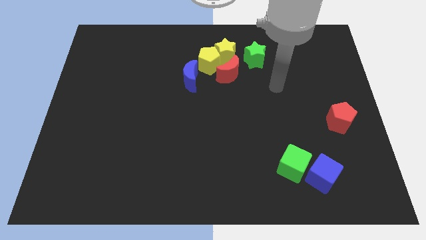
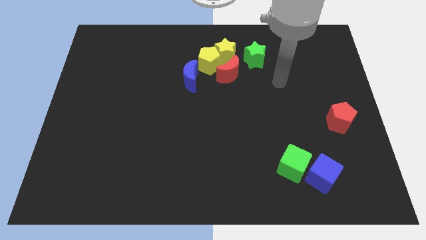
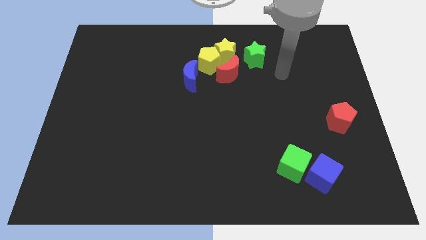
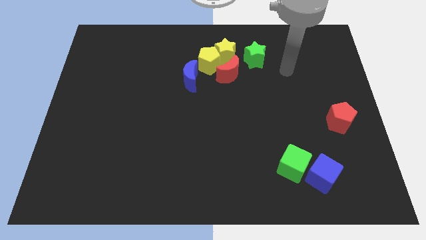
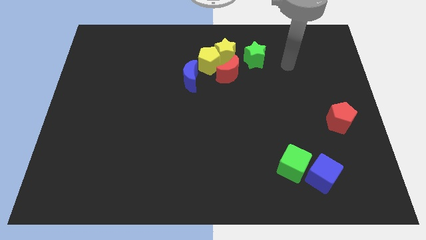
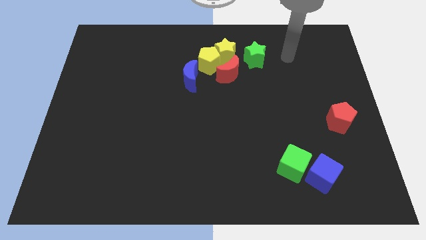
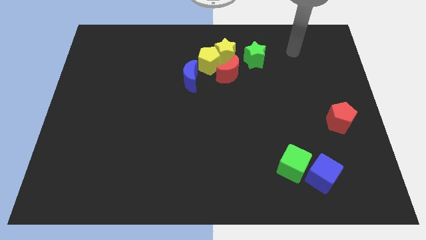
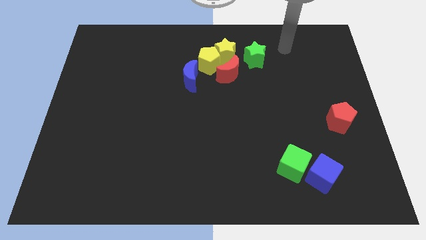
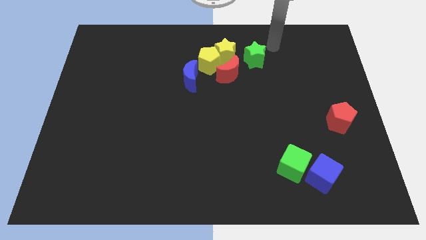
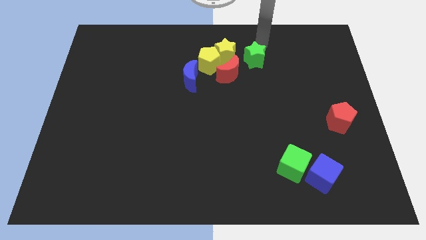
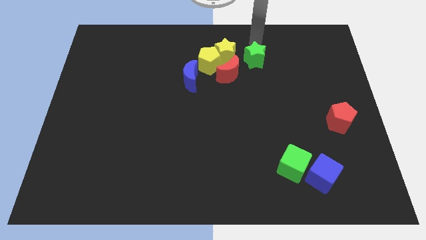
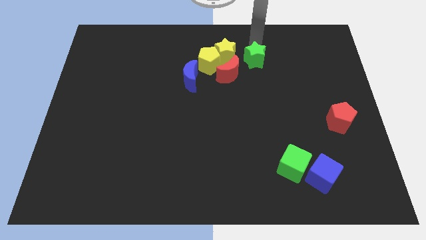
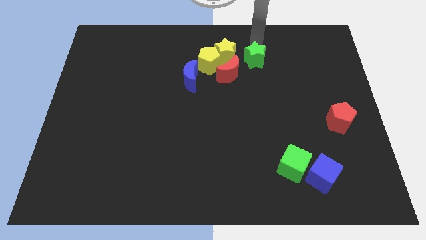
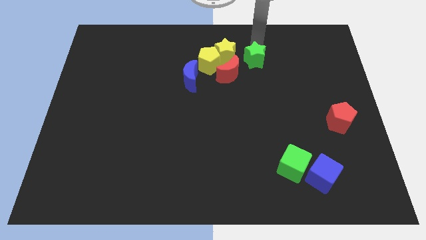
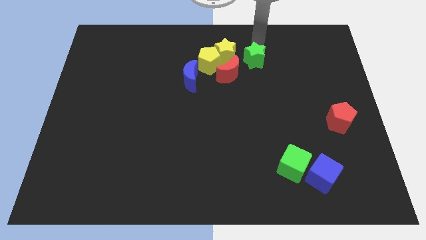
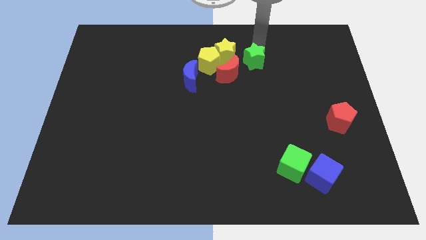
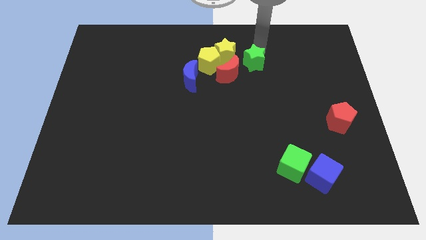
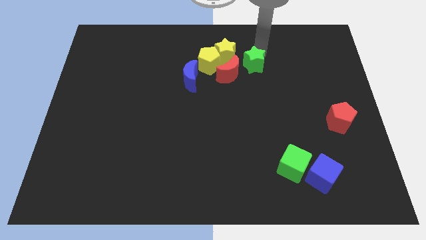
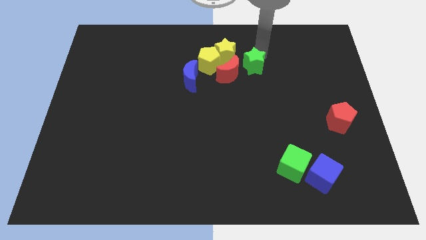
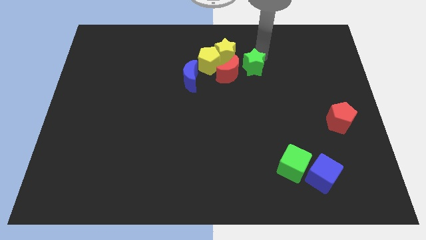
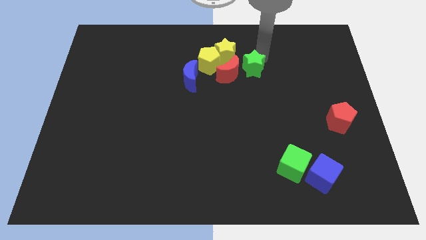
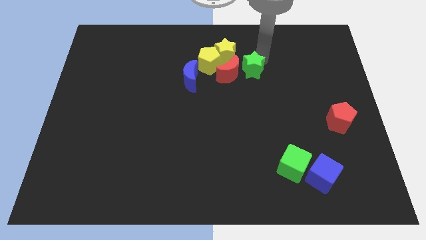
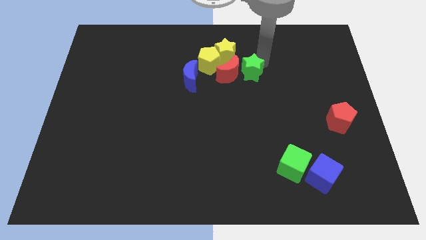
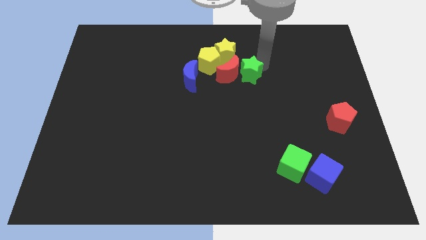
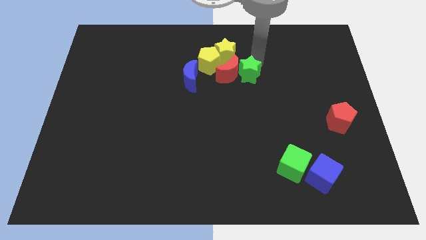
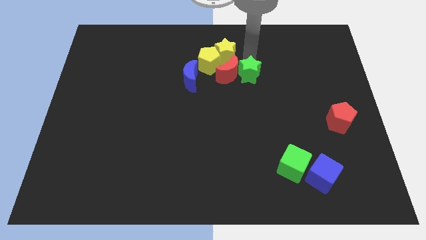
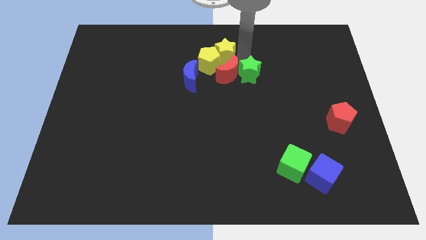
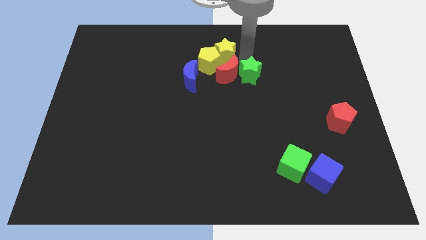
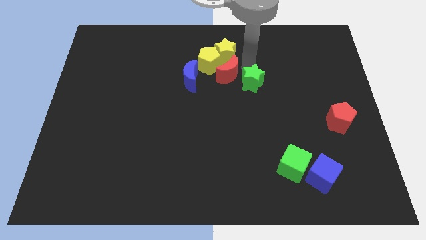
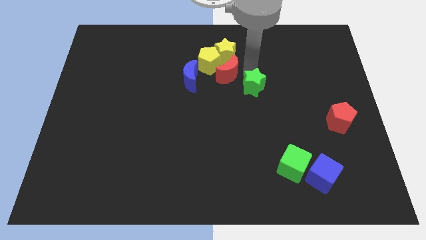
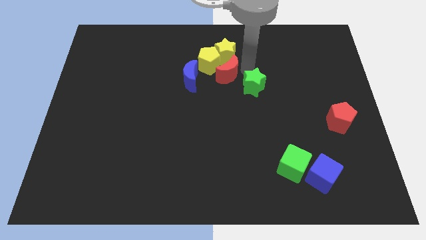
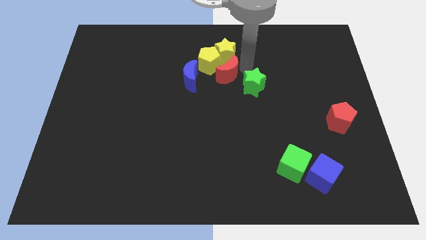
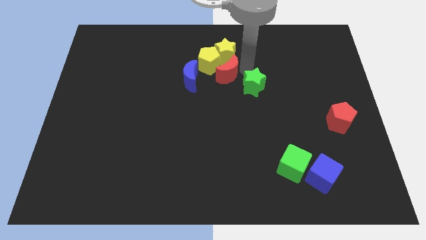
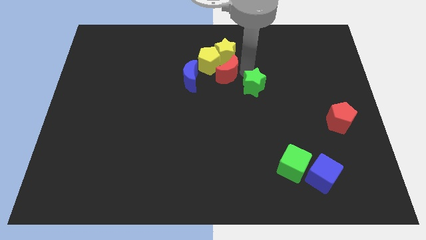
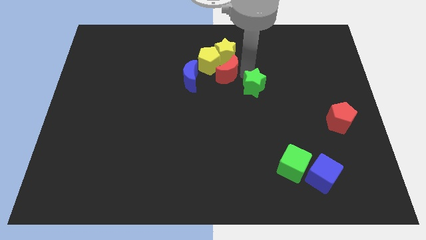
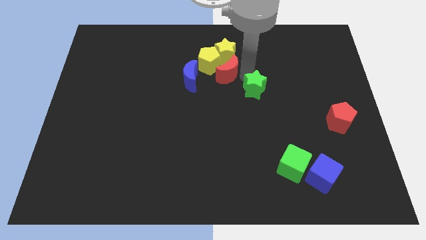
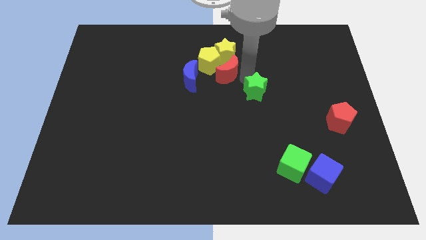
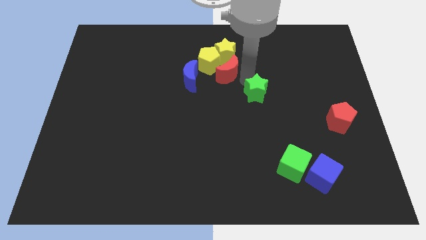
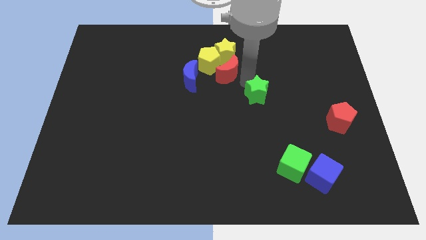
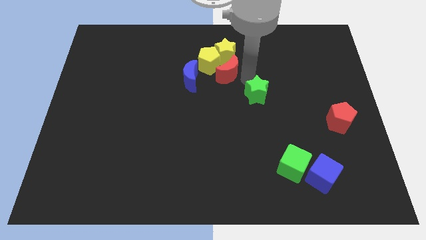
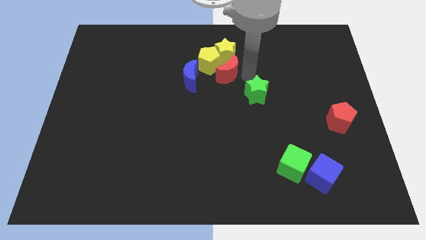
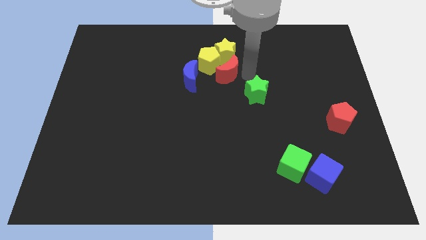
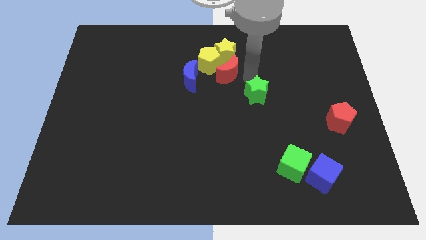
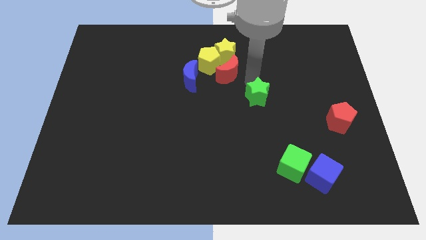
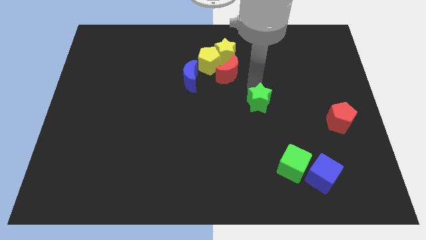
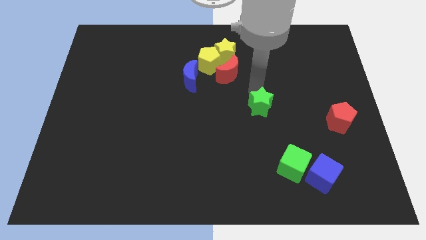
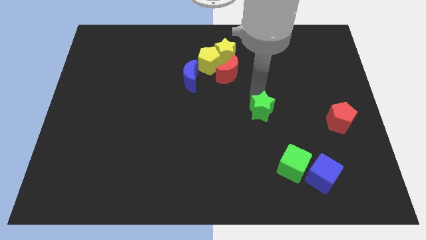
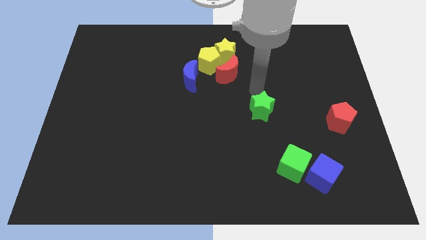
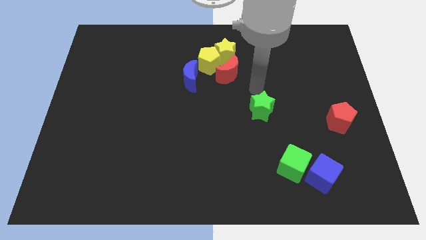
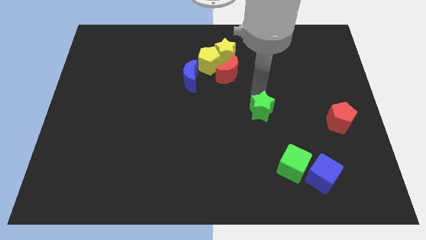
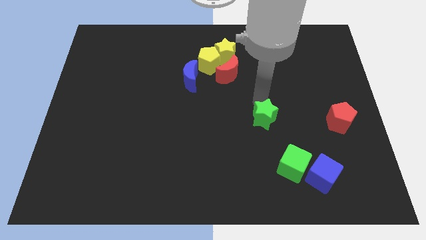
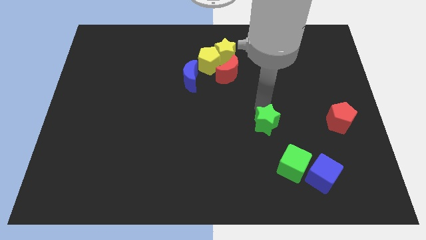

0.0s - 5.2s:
slide the green star downwards

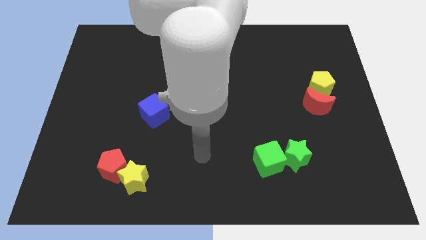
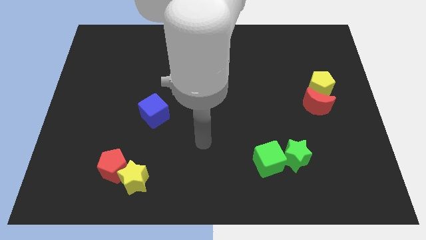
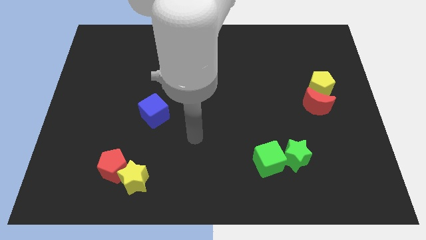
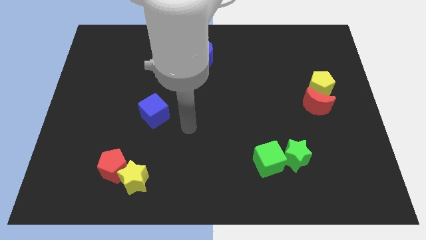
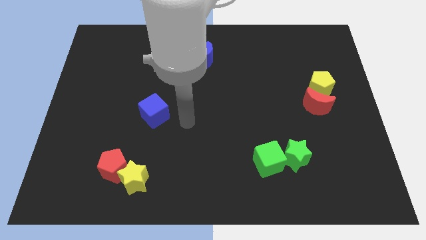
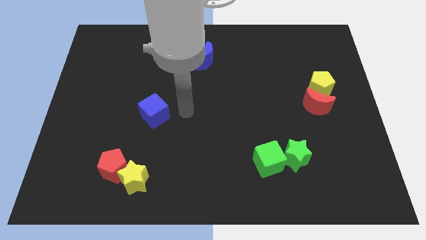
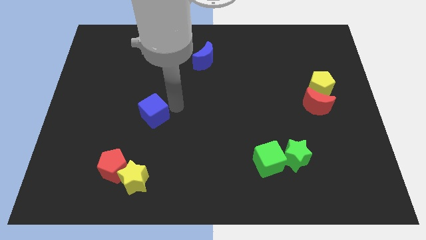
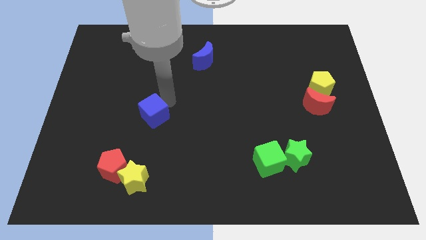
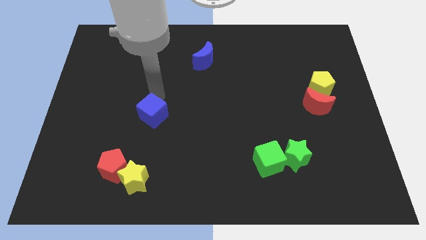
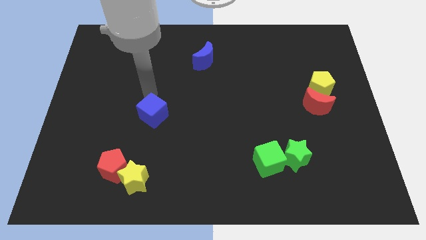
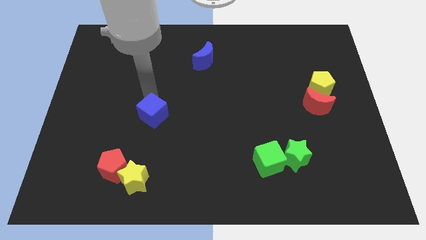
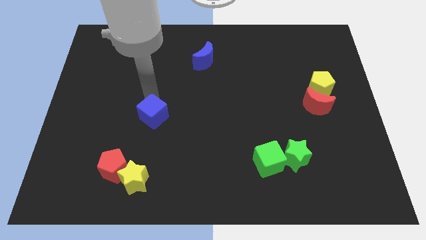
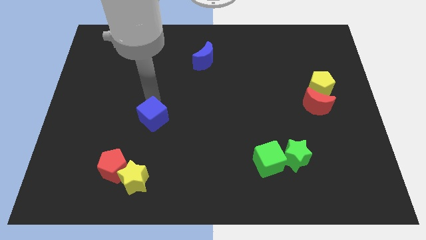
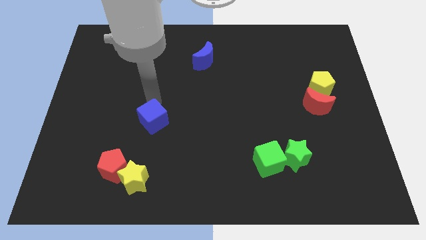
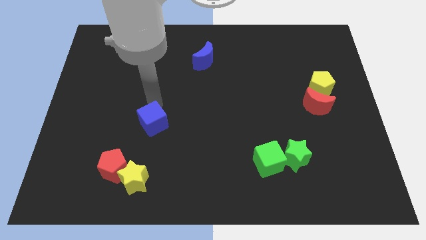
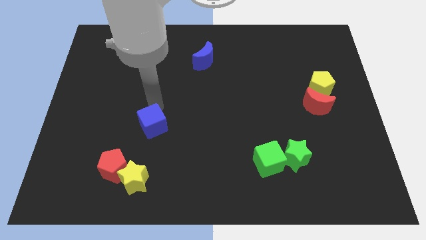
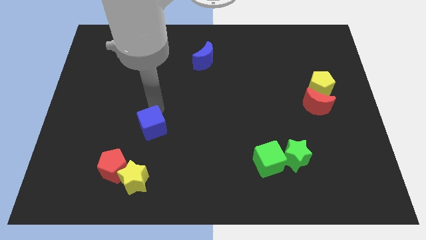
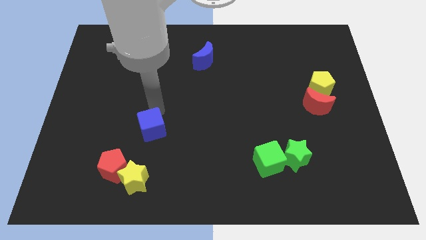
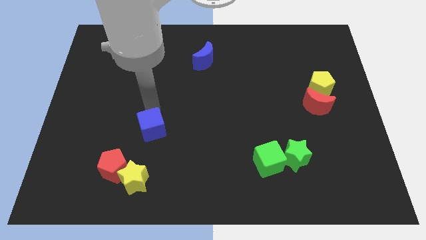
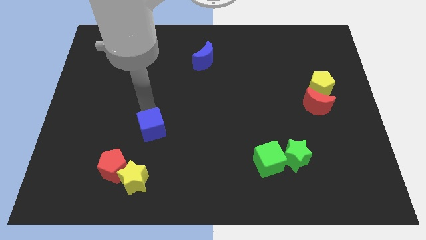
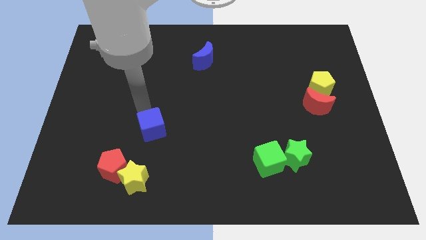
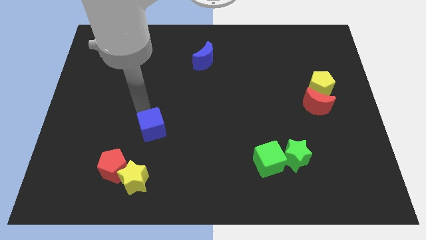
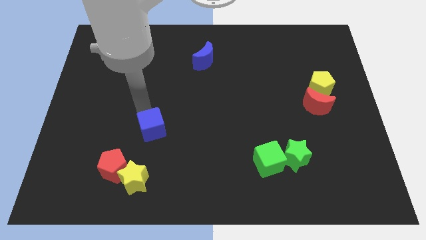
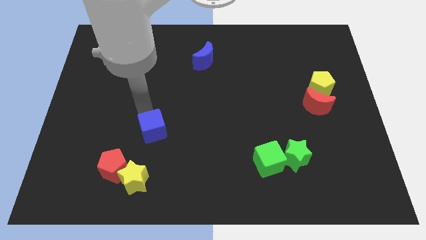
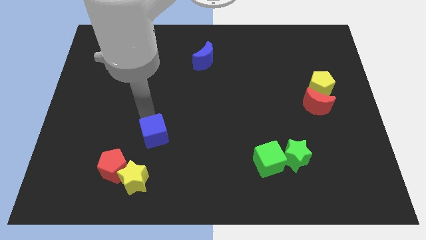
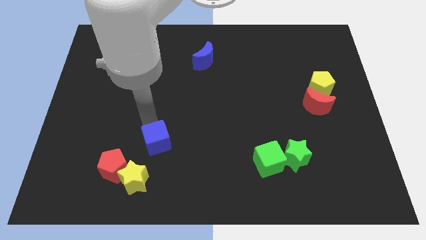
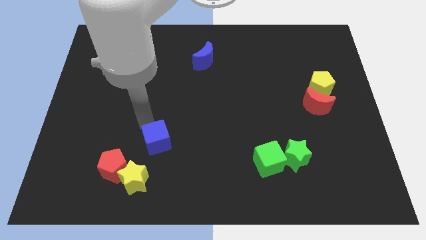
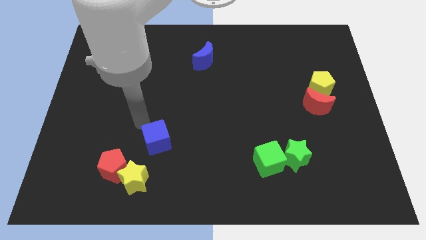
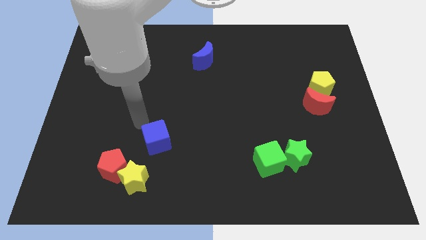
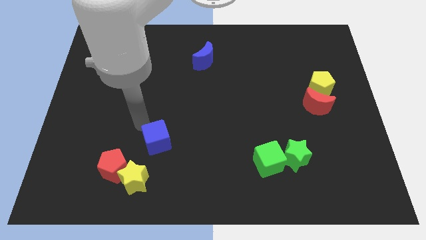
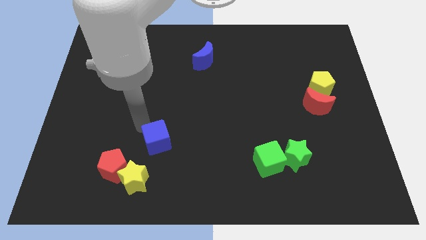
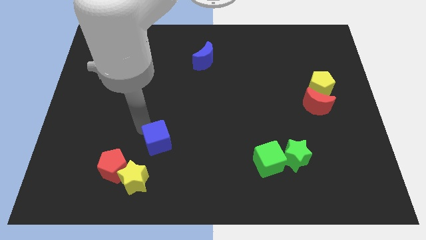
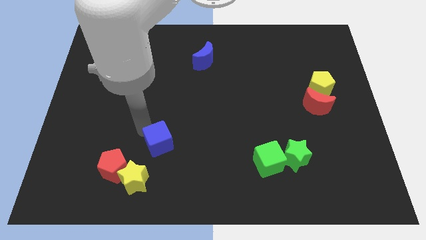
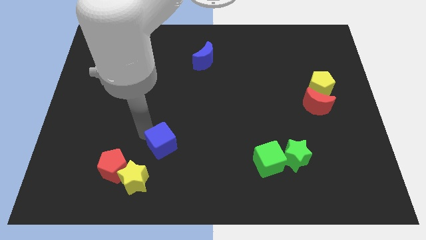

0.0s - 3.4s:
slightly move the blue cube downwards and then to the right
